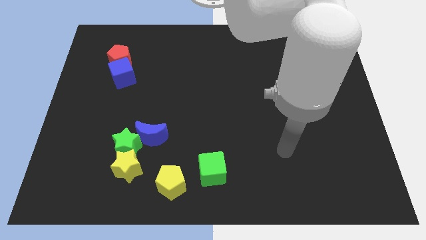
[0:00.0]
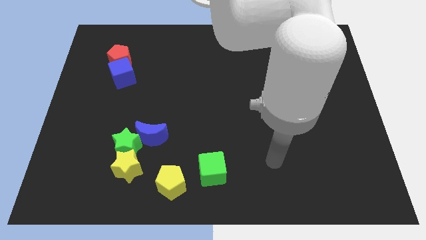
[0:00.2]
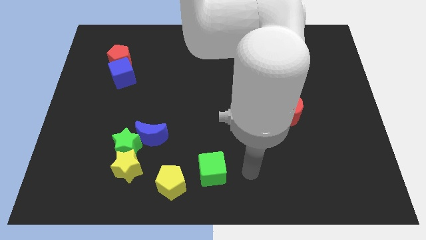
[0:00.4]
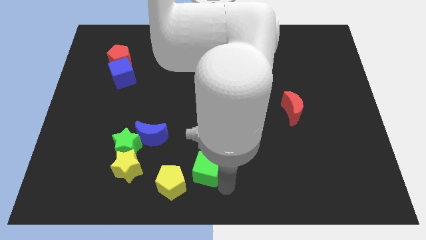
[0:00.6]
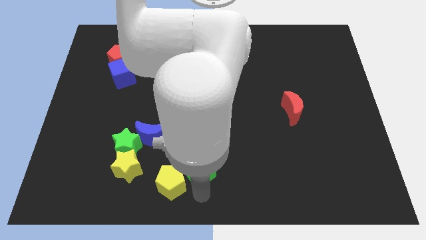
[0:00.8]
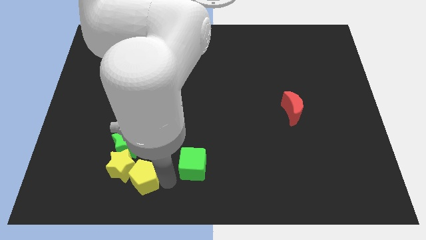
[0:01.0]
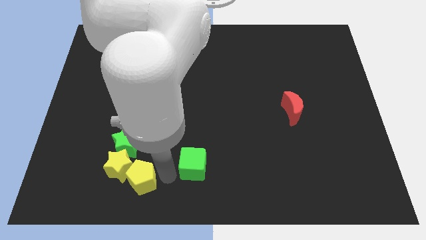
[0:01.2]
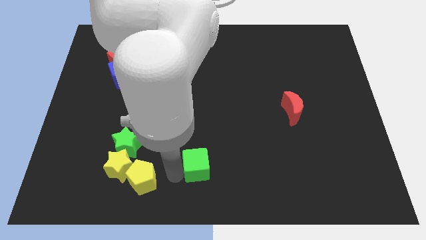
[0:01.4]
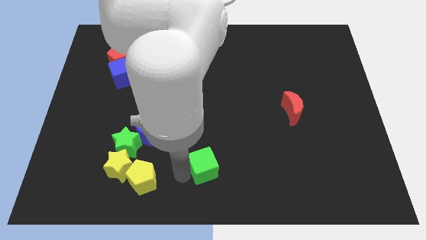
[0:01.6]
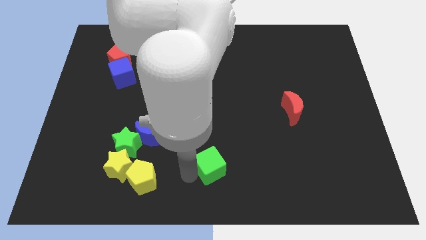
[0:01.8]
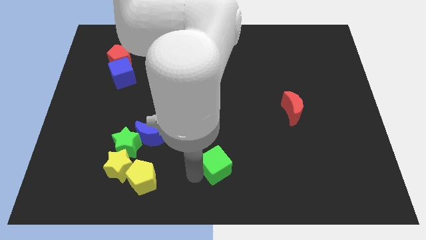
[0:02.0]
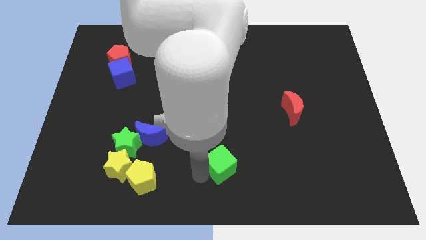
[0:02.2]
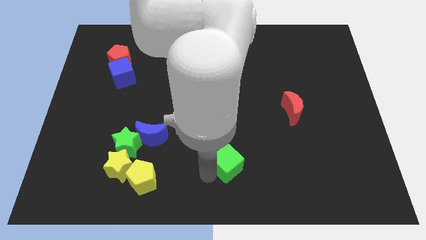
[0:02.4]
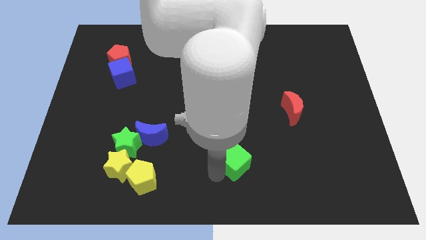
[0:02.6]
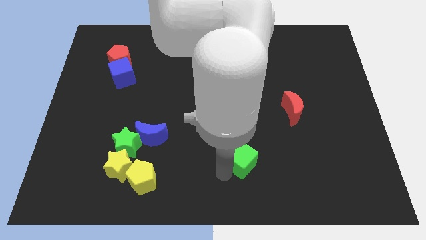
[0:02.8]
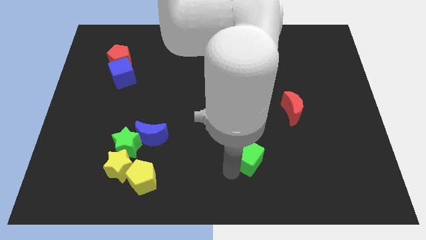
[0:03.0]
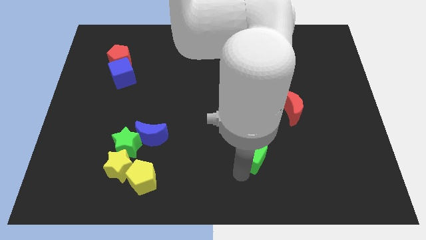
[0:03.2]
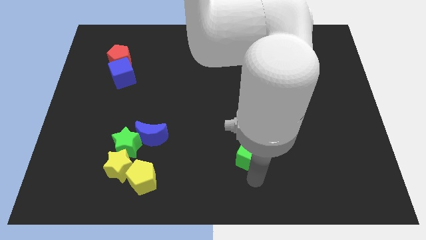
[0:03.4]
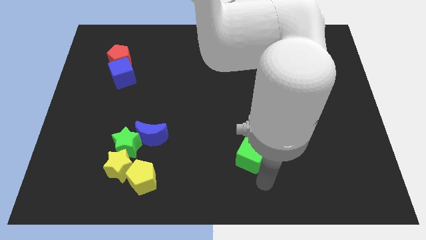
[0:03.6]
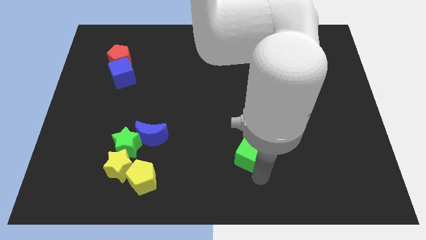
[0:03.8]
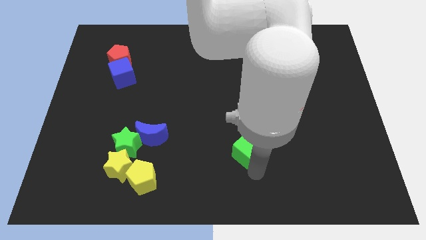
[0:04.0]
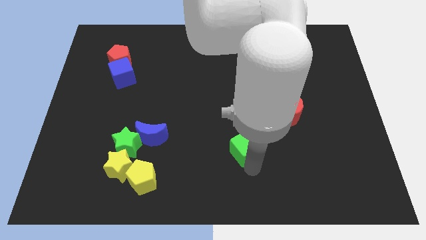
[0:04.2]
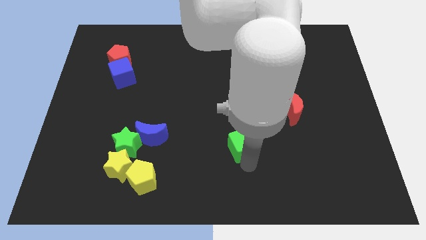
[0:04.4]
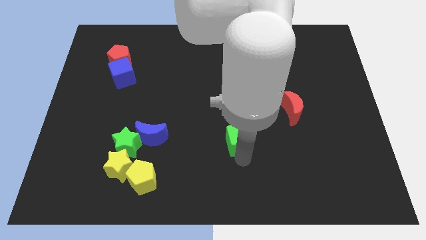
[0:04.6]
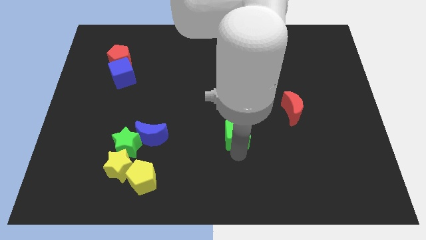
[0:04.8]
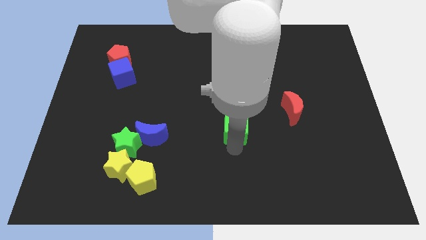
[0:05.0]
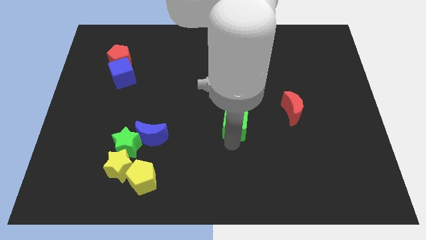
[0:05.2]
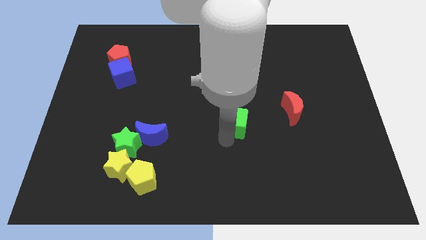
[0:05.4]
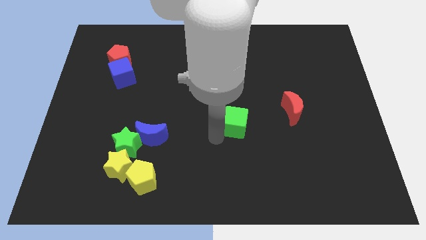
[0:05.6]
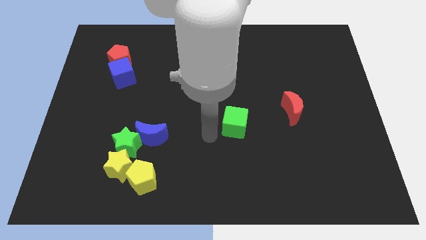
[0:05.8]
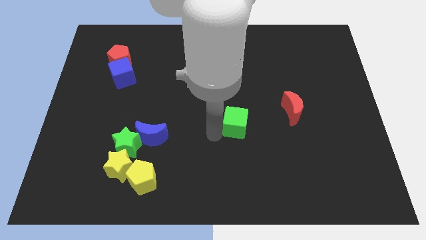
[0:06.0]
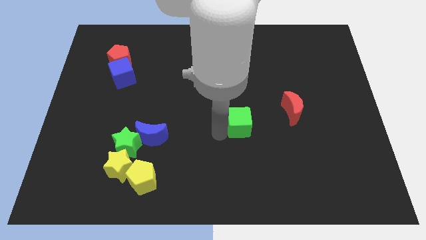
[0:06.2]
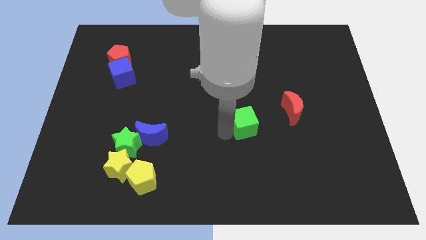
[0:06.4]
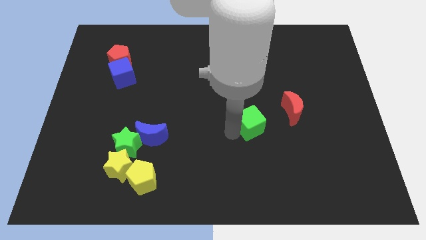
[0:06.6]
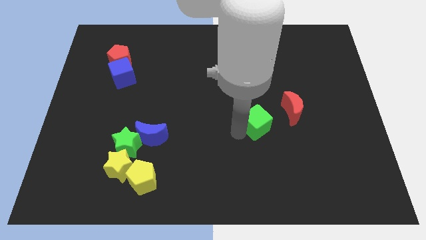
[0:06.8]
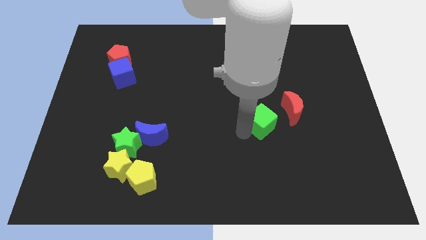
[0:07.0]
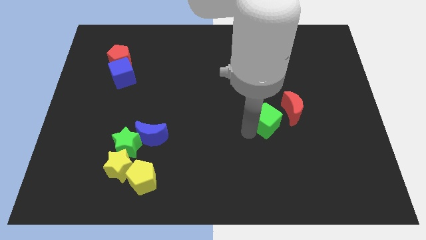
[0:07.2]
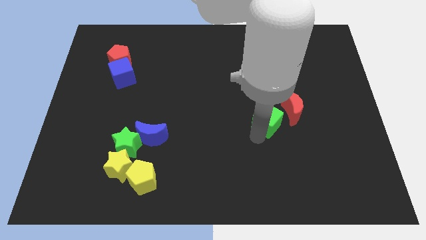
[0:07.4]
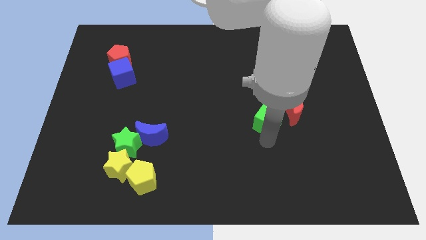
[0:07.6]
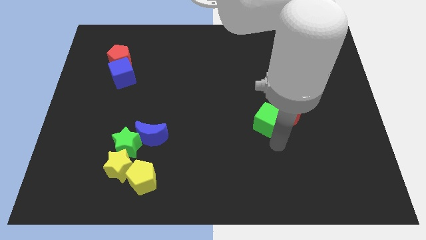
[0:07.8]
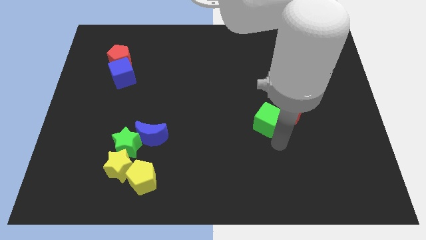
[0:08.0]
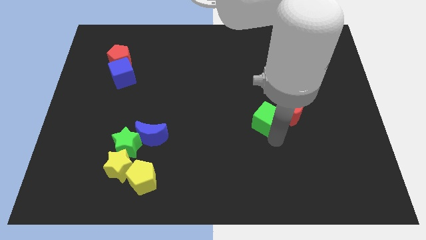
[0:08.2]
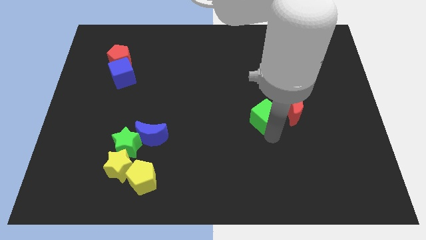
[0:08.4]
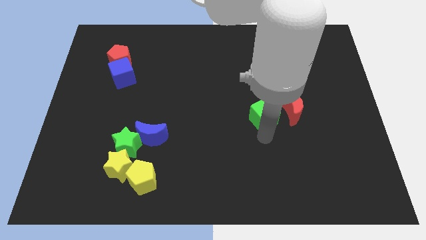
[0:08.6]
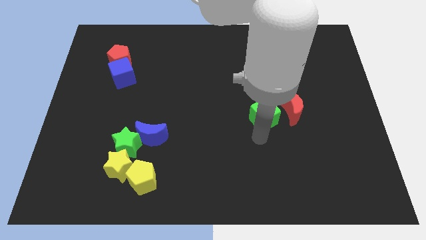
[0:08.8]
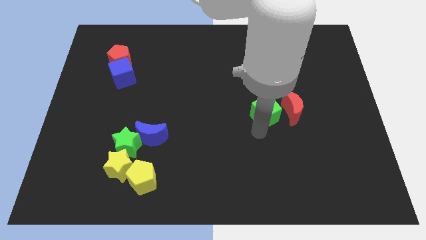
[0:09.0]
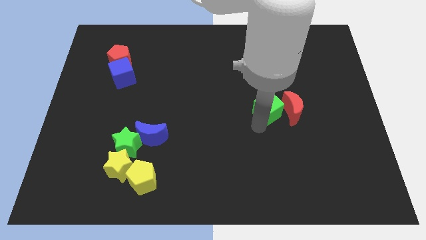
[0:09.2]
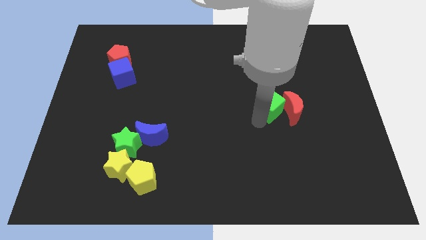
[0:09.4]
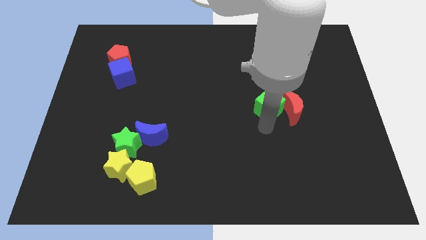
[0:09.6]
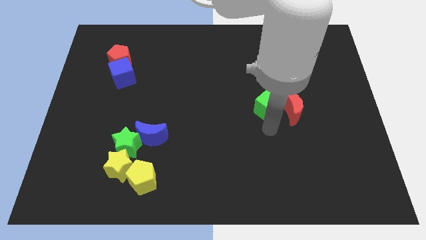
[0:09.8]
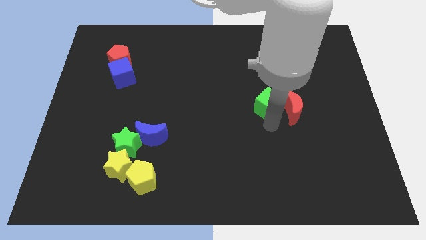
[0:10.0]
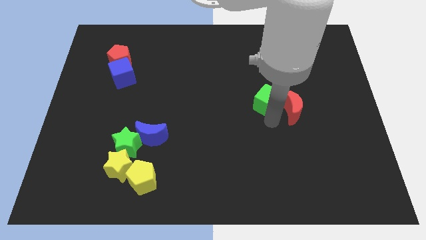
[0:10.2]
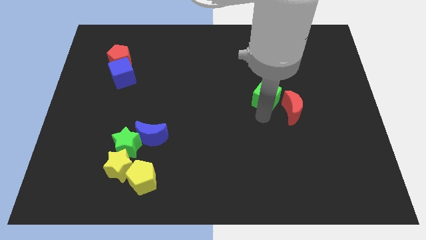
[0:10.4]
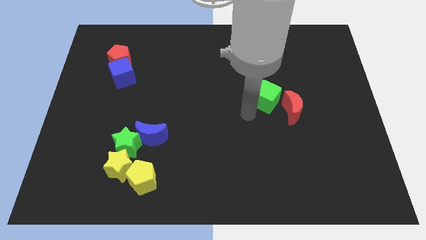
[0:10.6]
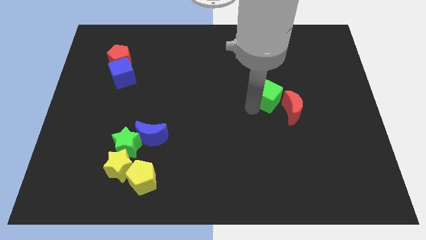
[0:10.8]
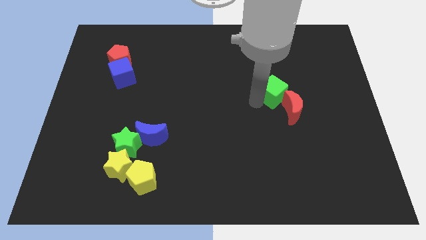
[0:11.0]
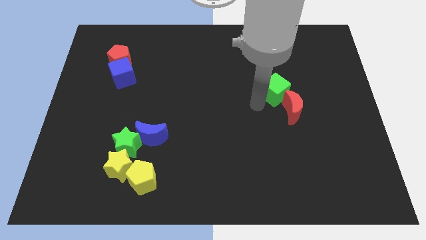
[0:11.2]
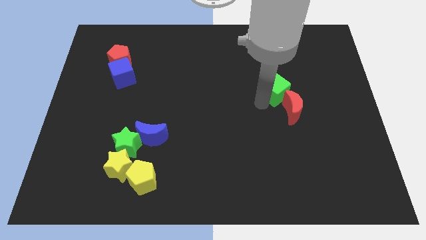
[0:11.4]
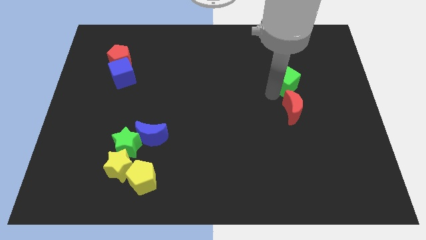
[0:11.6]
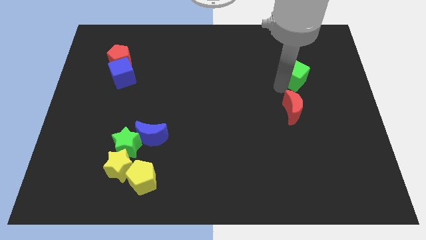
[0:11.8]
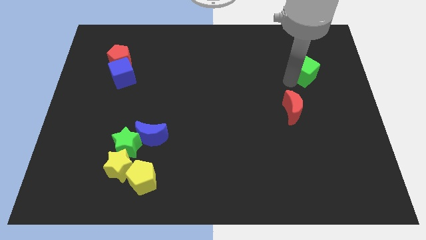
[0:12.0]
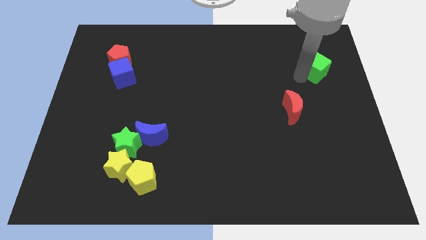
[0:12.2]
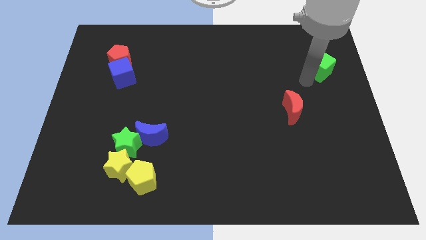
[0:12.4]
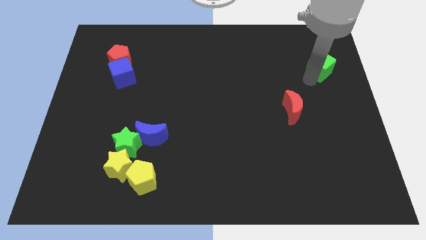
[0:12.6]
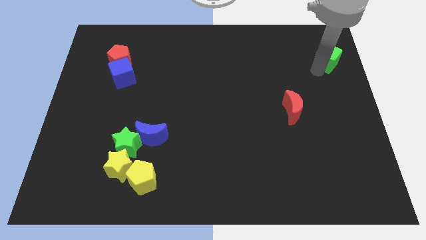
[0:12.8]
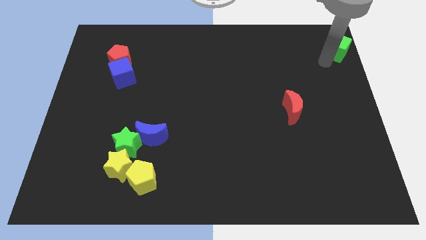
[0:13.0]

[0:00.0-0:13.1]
slide the green cube to the upper right corner

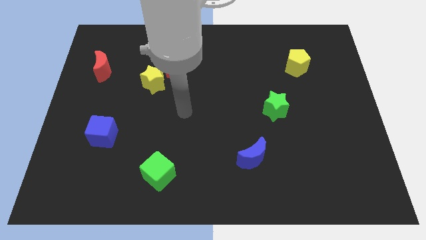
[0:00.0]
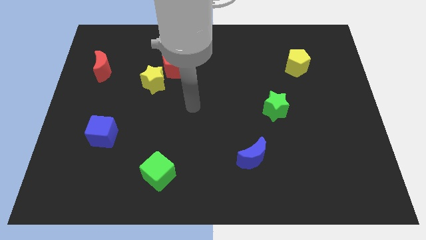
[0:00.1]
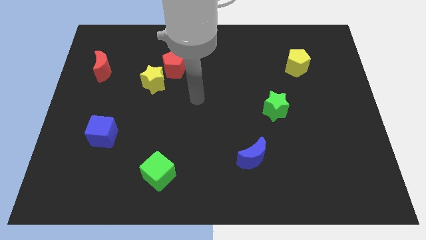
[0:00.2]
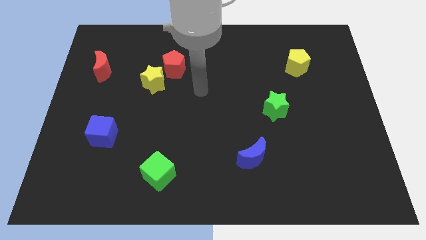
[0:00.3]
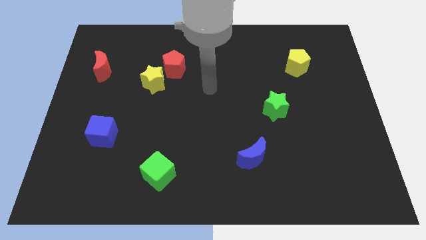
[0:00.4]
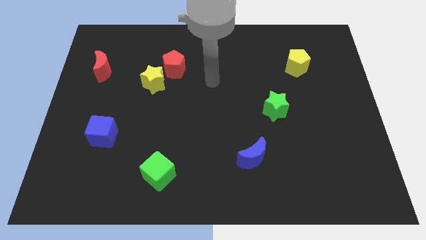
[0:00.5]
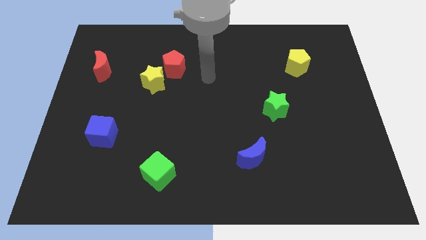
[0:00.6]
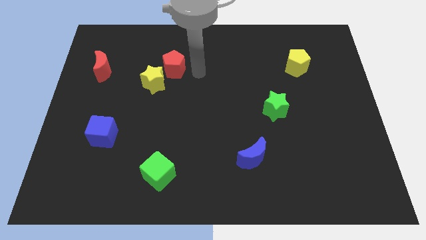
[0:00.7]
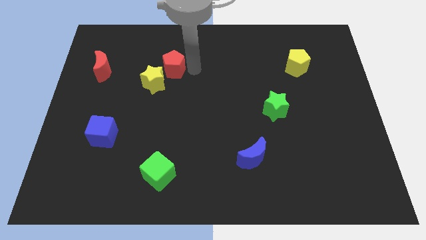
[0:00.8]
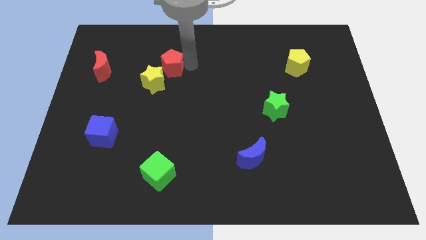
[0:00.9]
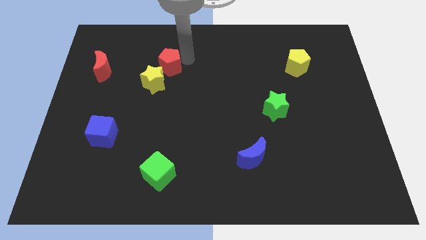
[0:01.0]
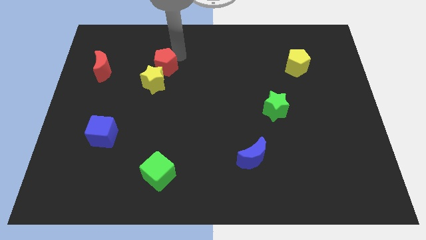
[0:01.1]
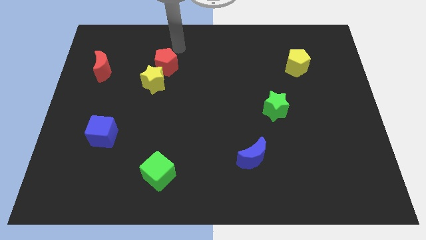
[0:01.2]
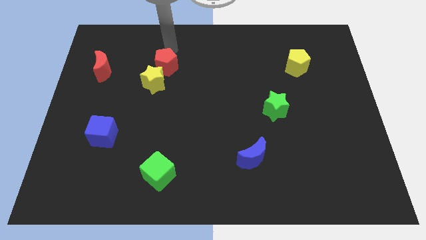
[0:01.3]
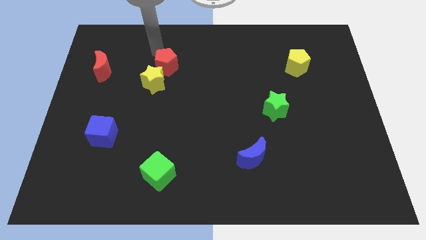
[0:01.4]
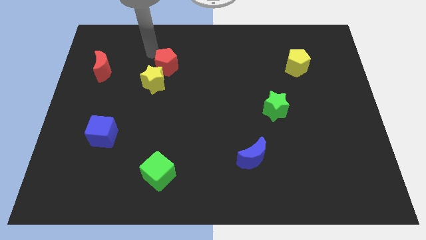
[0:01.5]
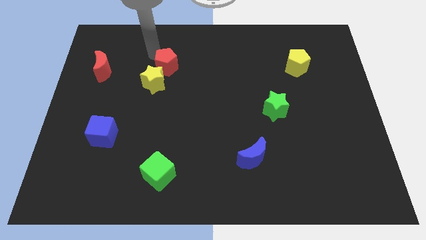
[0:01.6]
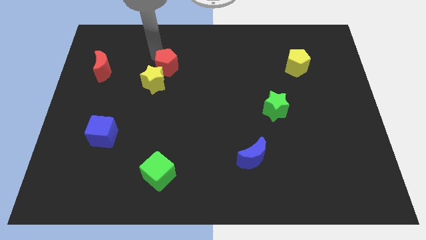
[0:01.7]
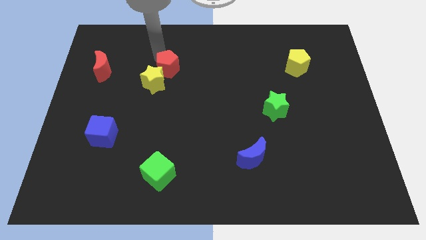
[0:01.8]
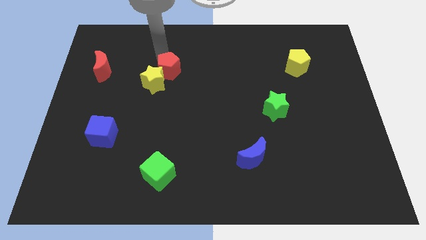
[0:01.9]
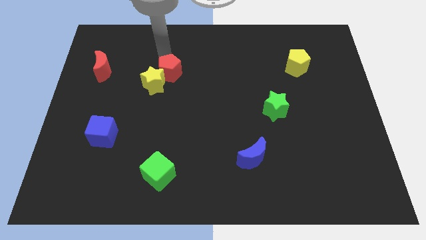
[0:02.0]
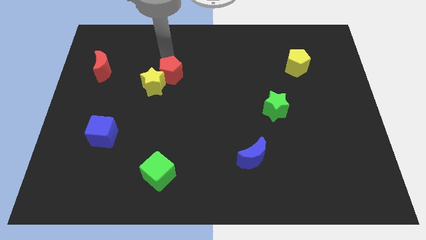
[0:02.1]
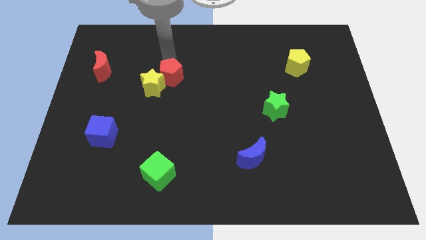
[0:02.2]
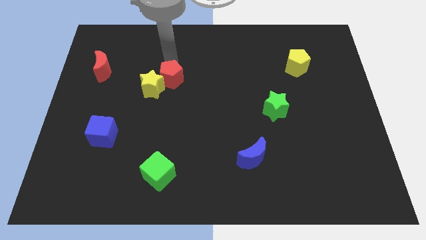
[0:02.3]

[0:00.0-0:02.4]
slide the red pentagon to the middle of the board
